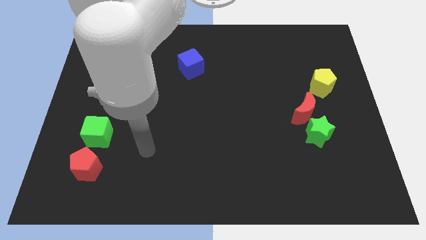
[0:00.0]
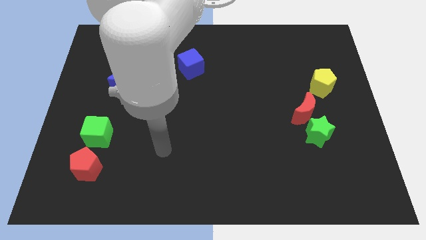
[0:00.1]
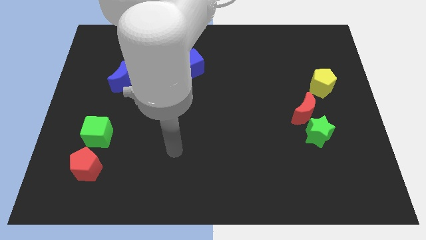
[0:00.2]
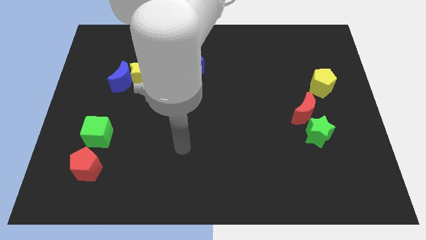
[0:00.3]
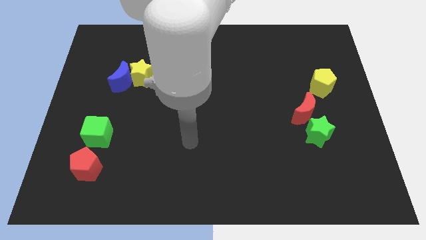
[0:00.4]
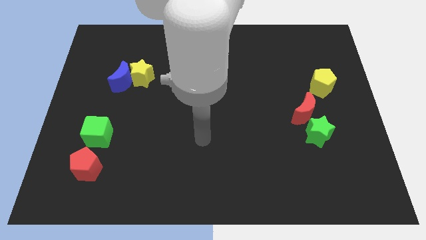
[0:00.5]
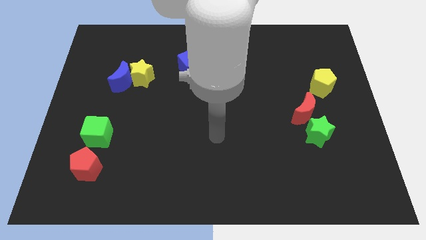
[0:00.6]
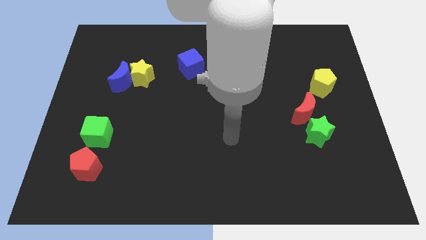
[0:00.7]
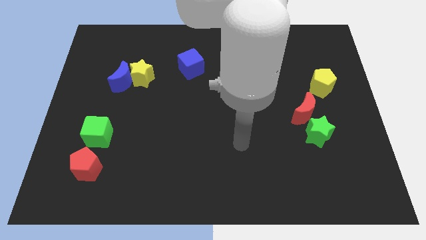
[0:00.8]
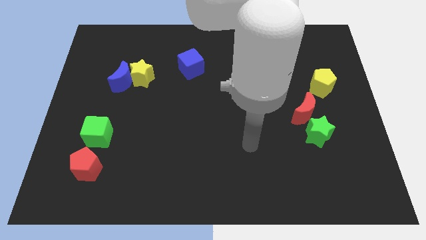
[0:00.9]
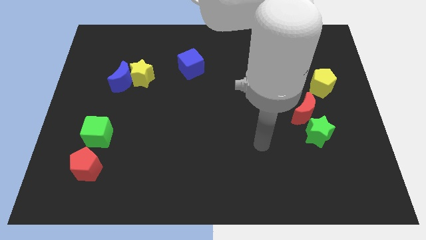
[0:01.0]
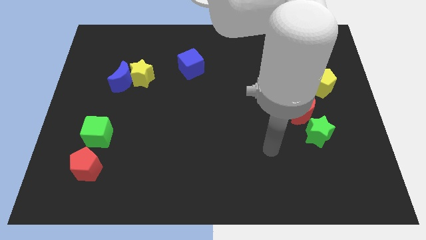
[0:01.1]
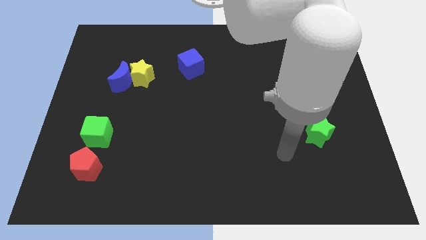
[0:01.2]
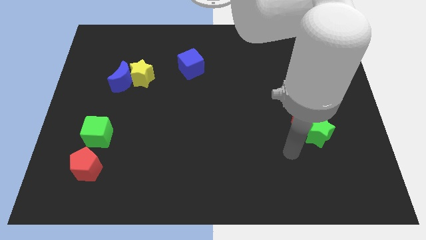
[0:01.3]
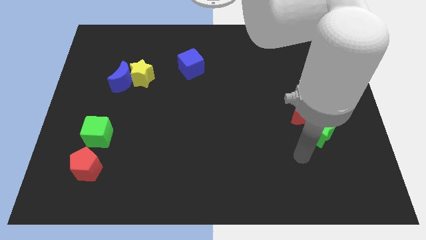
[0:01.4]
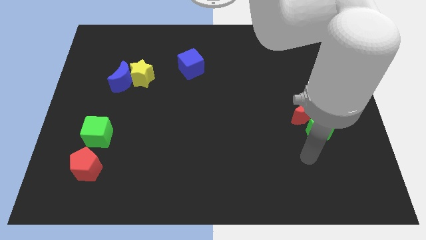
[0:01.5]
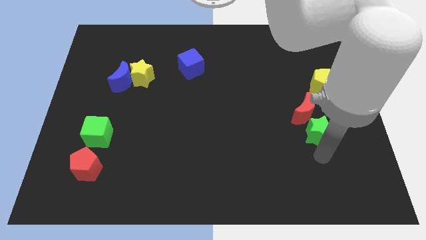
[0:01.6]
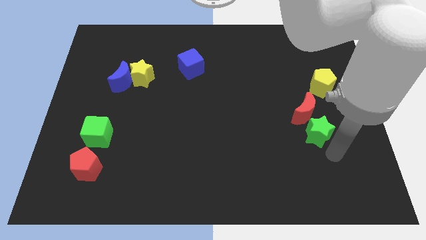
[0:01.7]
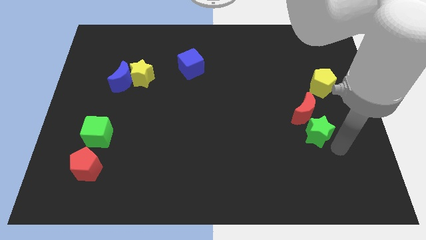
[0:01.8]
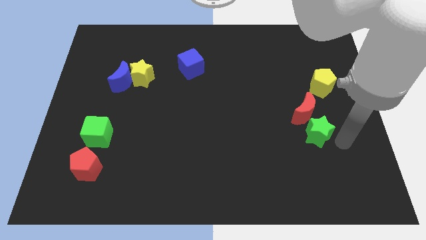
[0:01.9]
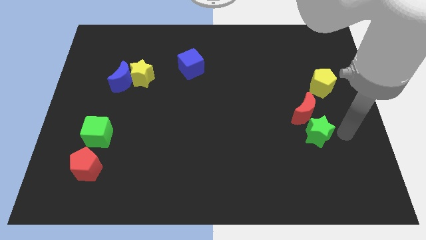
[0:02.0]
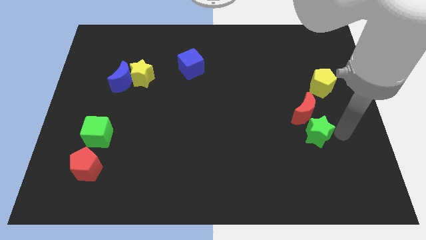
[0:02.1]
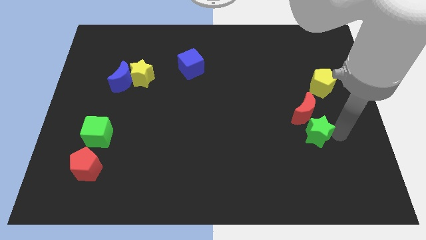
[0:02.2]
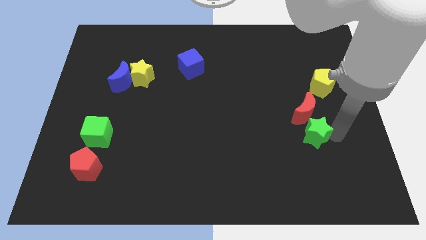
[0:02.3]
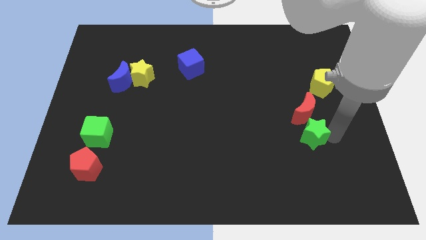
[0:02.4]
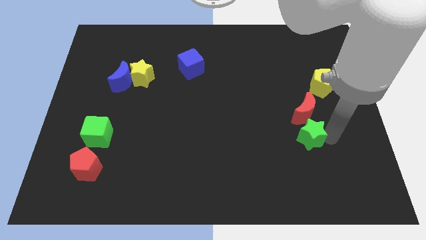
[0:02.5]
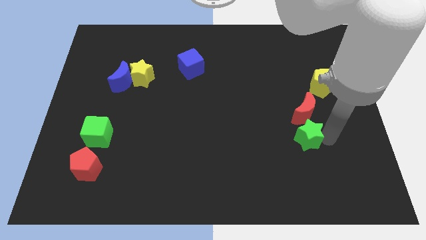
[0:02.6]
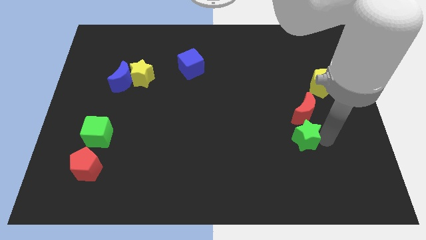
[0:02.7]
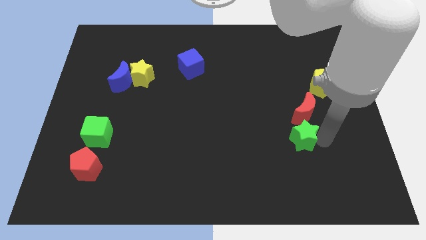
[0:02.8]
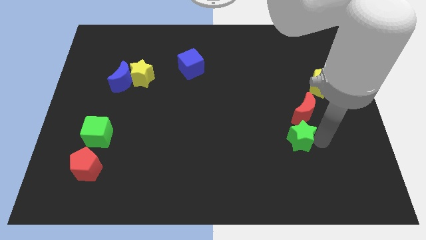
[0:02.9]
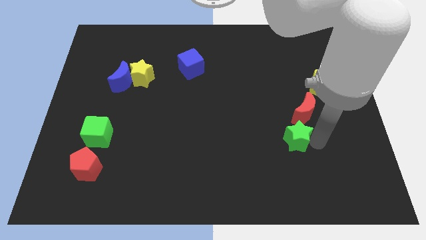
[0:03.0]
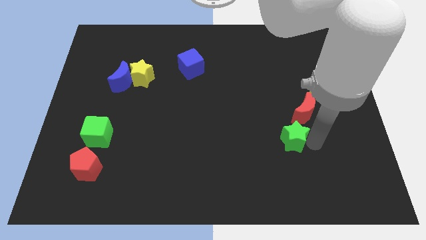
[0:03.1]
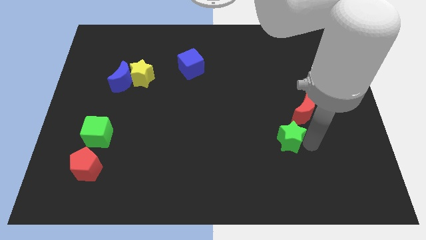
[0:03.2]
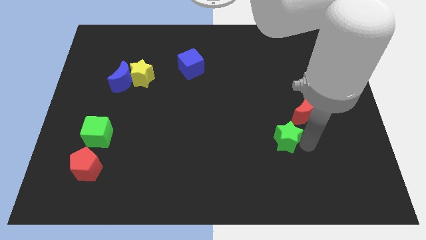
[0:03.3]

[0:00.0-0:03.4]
slightly push the green star left

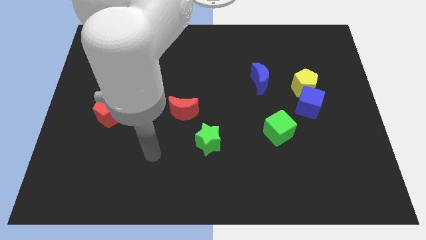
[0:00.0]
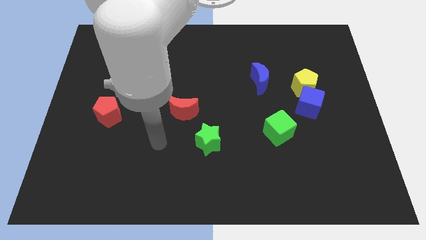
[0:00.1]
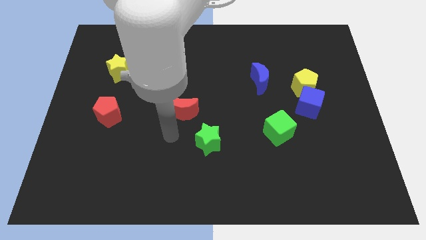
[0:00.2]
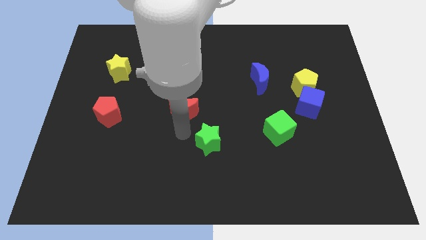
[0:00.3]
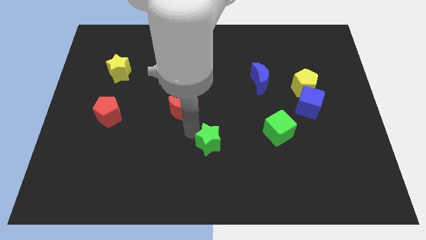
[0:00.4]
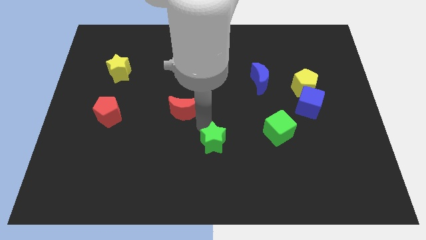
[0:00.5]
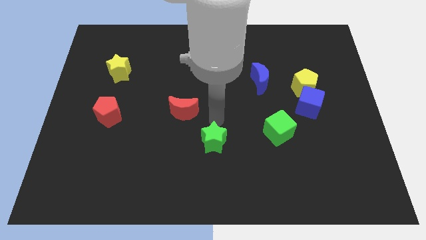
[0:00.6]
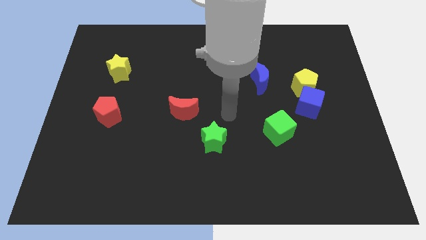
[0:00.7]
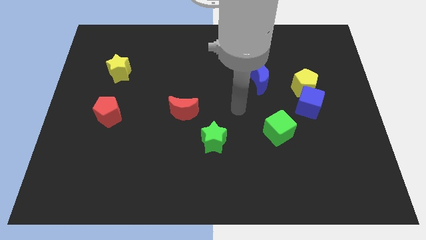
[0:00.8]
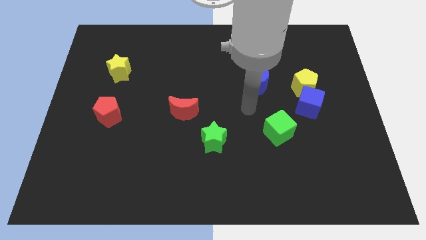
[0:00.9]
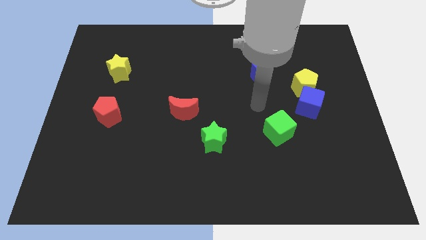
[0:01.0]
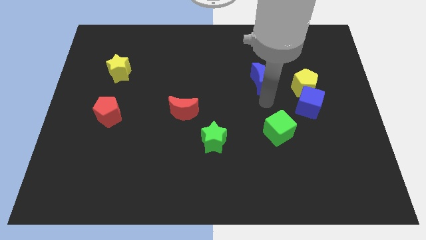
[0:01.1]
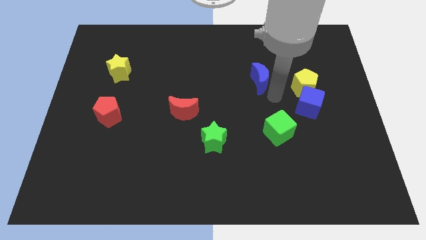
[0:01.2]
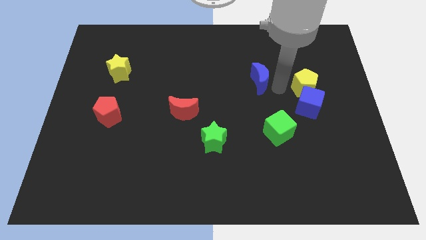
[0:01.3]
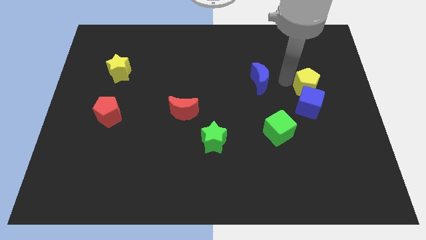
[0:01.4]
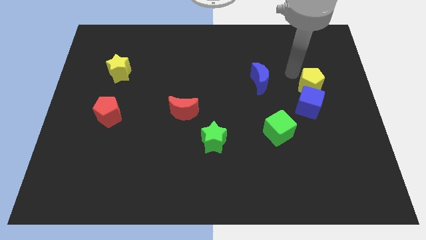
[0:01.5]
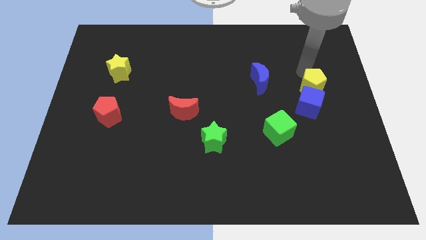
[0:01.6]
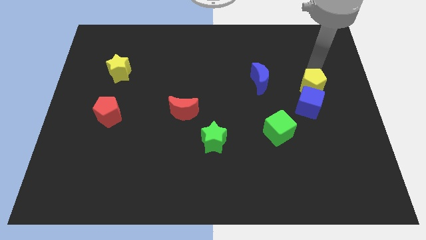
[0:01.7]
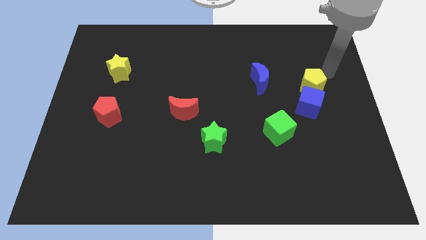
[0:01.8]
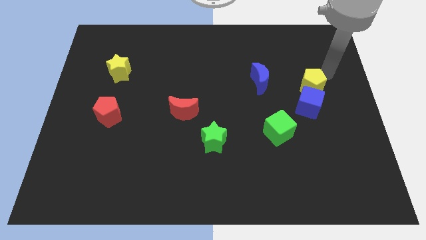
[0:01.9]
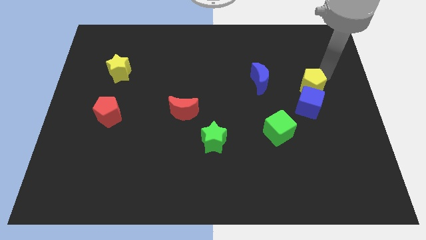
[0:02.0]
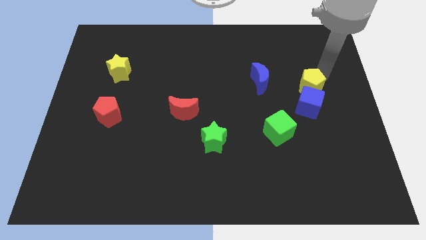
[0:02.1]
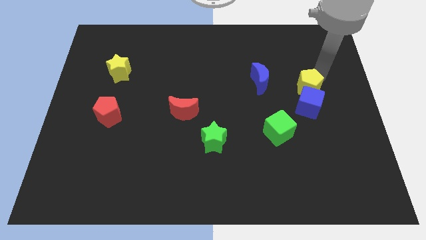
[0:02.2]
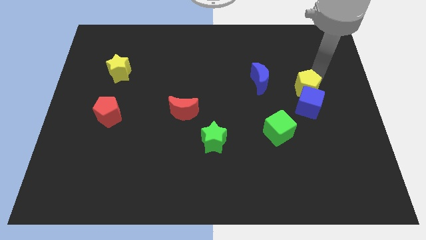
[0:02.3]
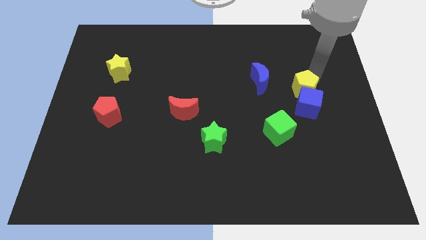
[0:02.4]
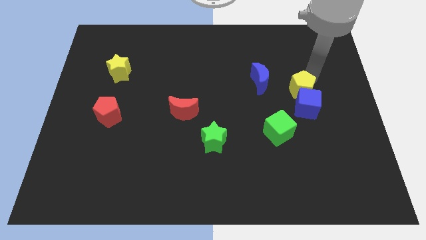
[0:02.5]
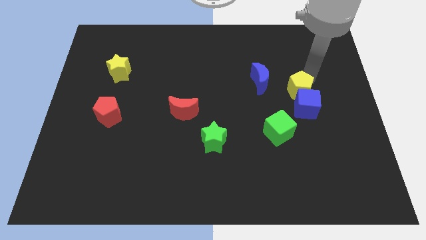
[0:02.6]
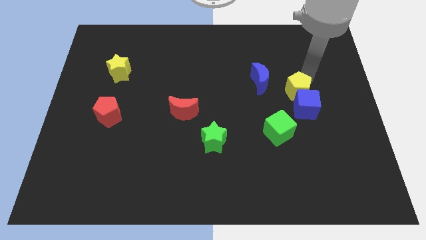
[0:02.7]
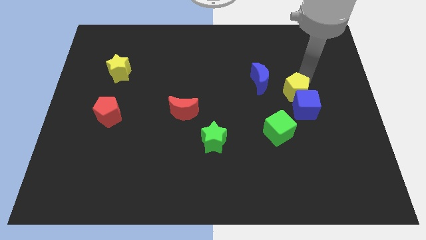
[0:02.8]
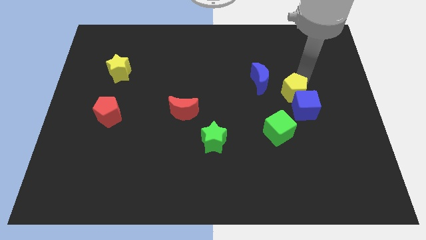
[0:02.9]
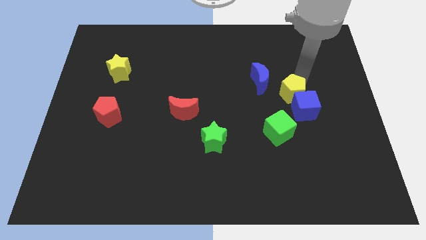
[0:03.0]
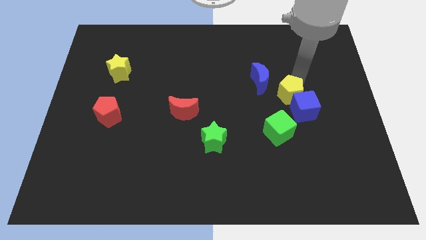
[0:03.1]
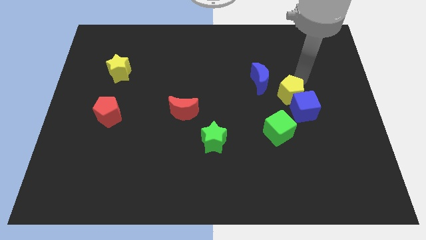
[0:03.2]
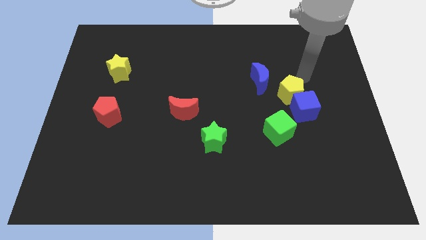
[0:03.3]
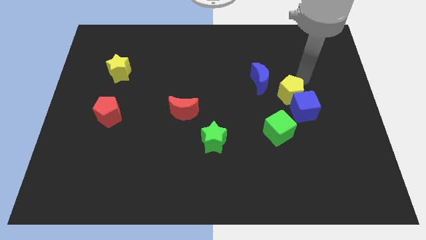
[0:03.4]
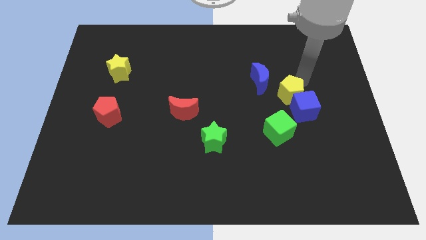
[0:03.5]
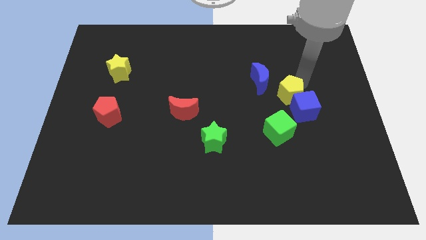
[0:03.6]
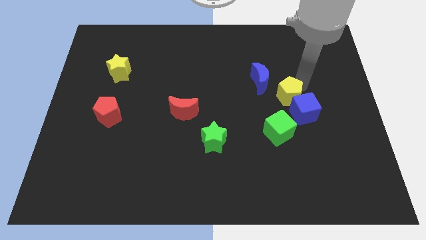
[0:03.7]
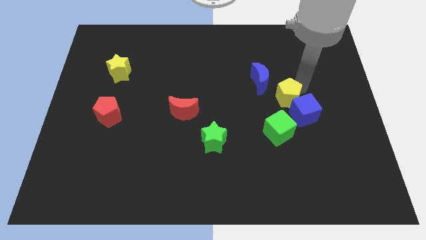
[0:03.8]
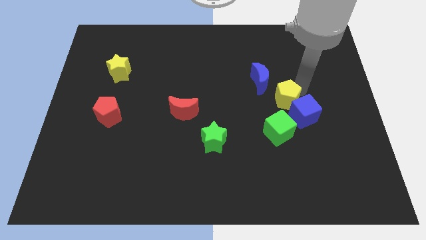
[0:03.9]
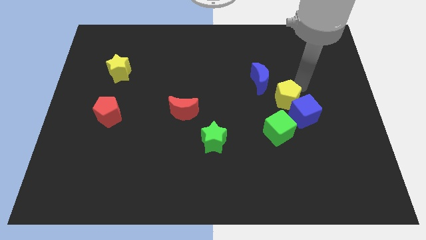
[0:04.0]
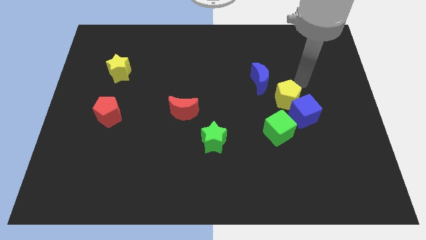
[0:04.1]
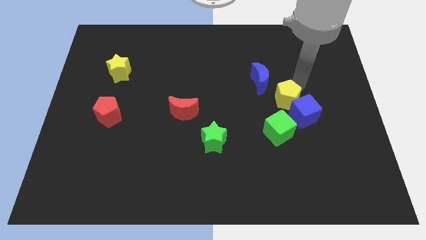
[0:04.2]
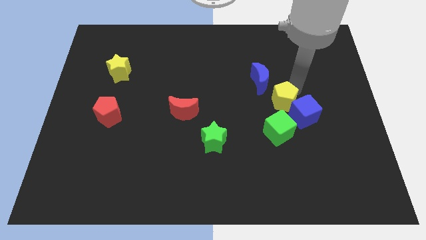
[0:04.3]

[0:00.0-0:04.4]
move the yellow pentagon somewhat down and left diagonally

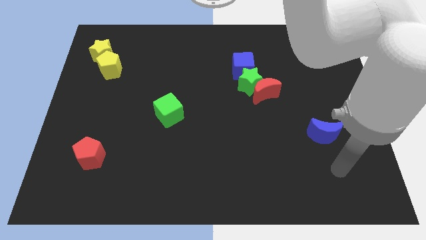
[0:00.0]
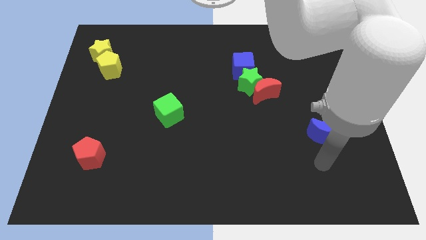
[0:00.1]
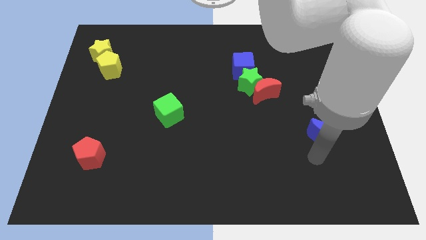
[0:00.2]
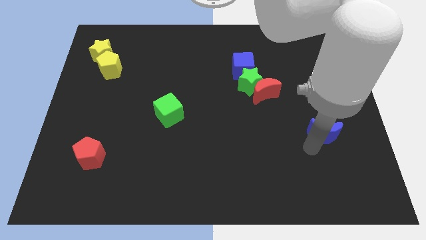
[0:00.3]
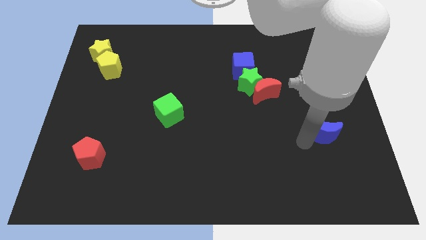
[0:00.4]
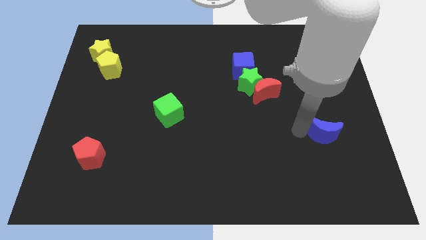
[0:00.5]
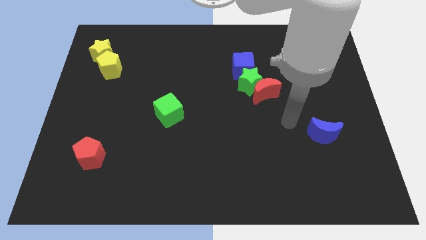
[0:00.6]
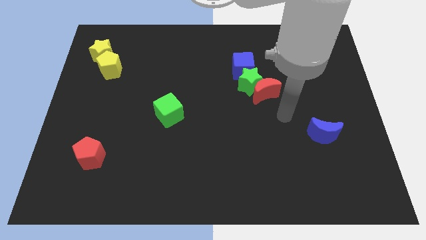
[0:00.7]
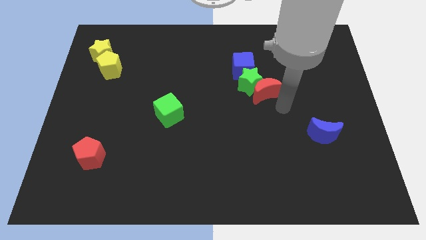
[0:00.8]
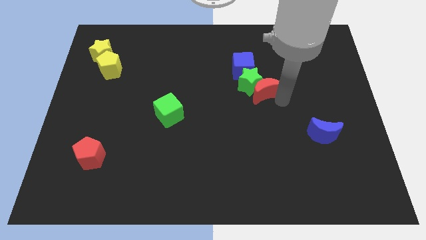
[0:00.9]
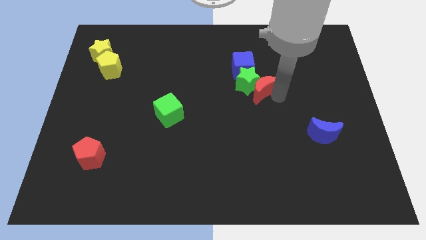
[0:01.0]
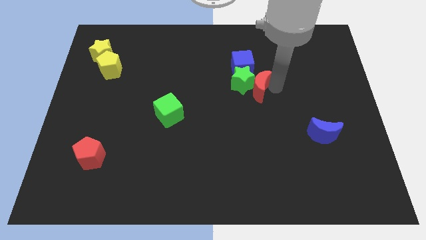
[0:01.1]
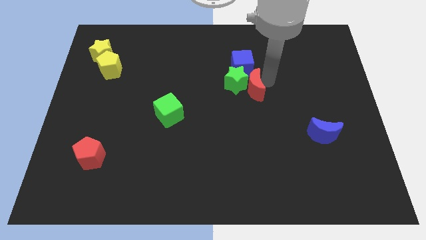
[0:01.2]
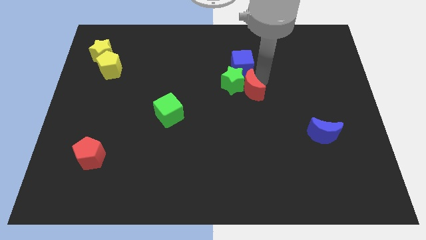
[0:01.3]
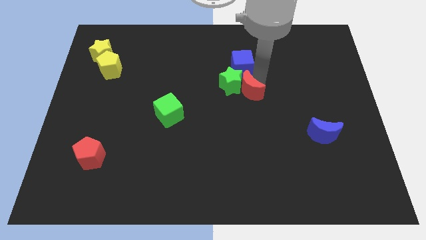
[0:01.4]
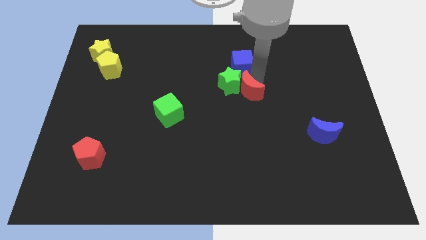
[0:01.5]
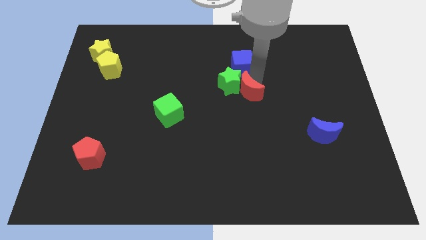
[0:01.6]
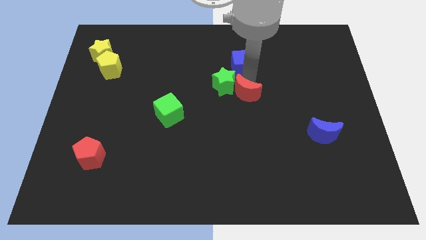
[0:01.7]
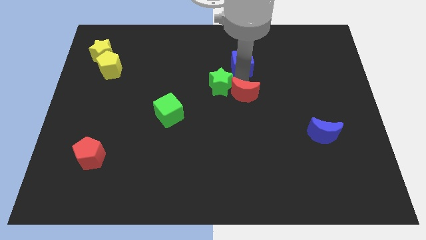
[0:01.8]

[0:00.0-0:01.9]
move the green star to the left a little bit
